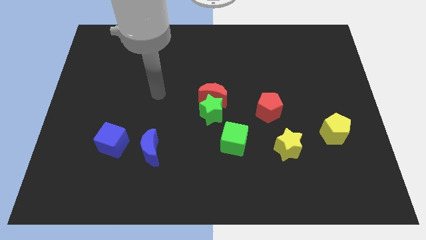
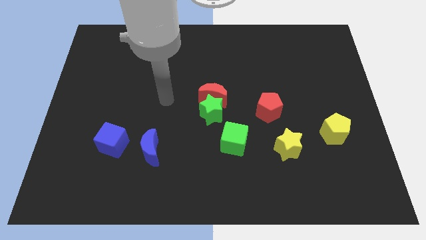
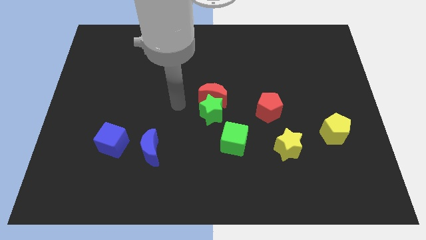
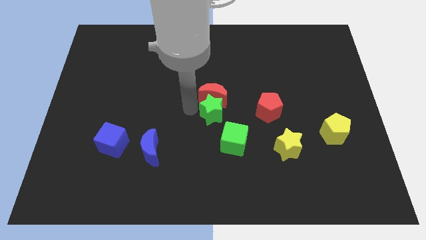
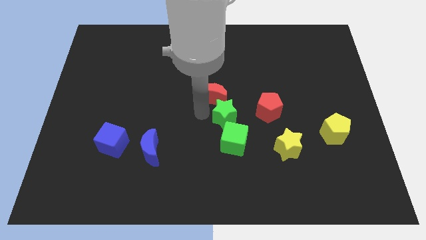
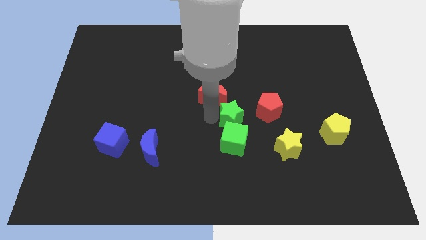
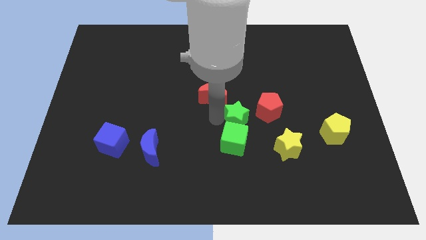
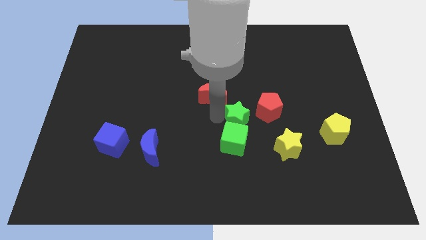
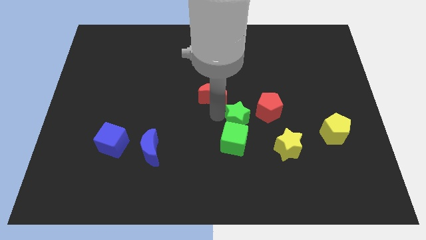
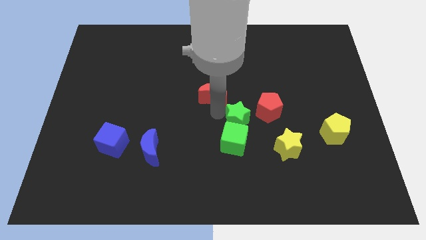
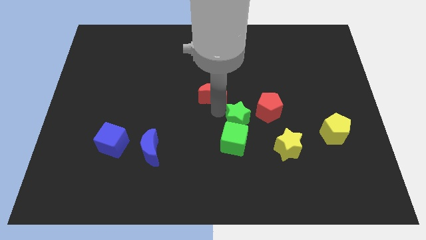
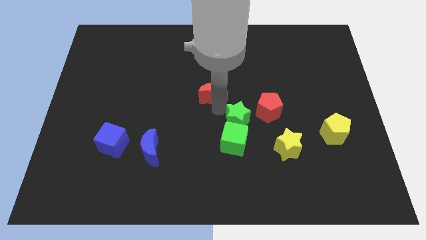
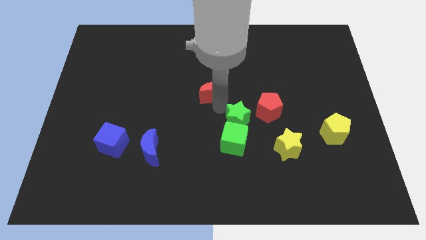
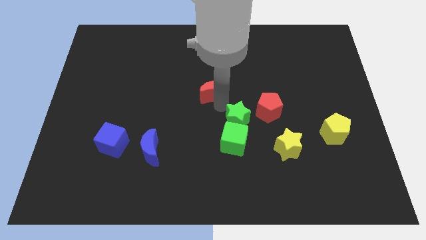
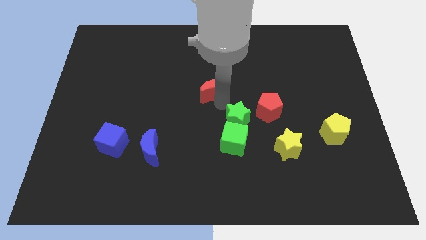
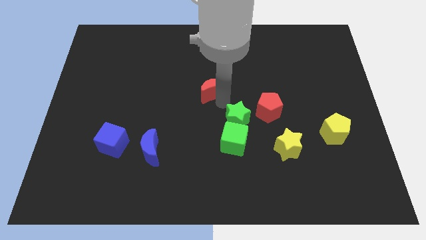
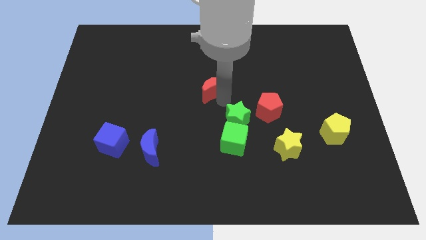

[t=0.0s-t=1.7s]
pull the red moon apart from the green star

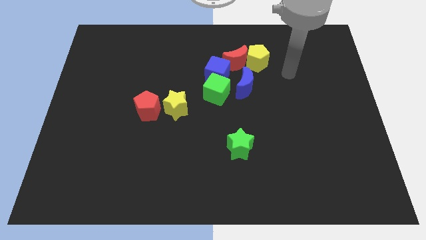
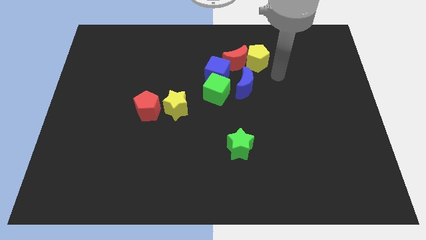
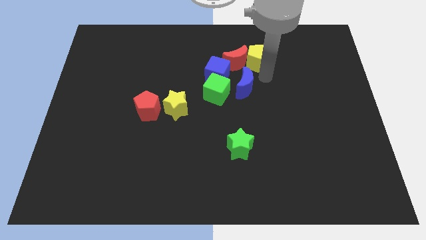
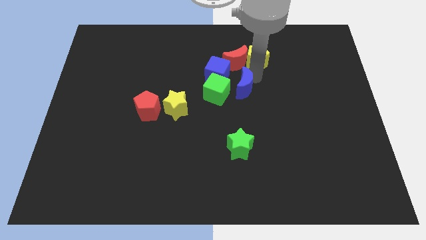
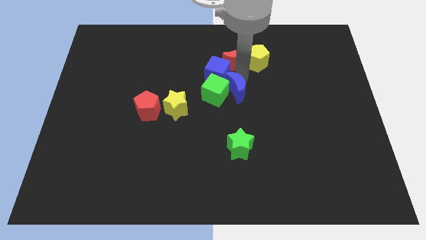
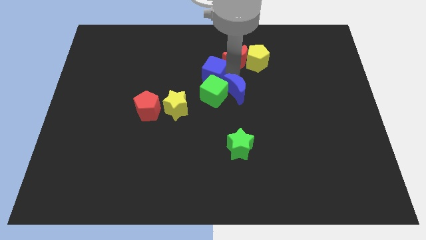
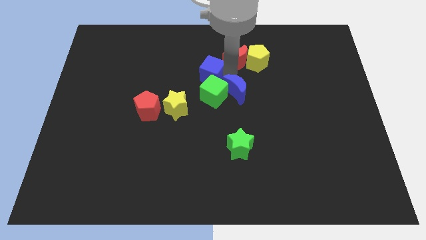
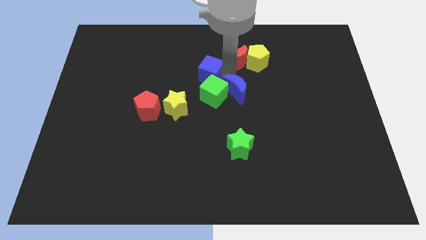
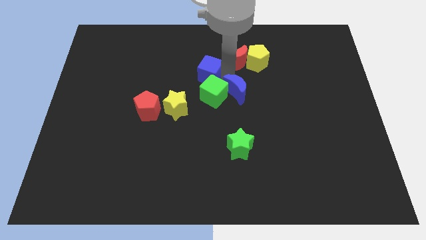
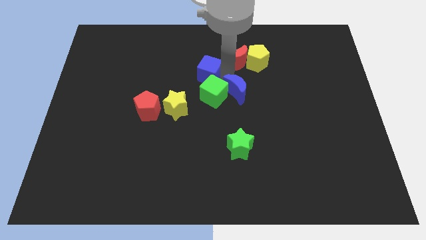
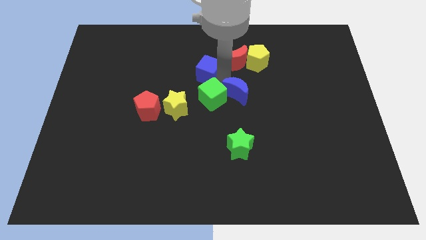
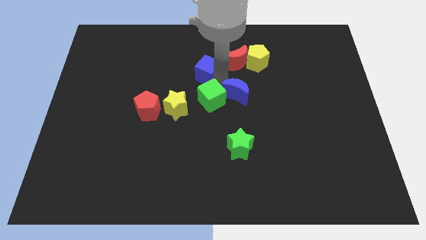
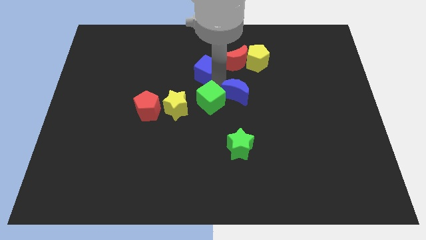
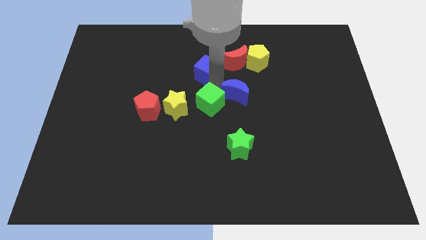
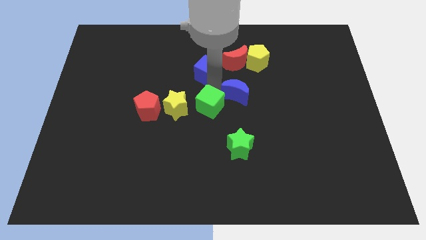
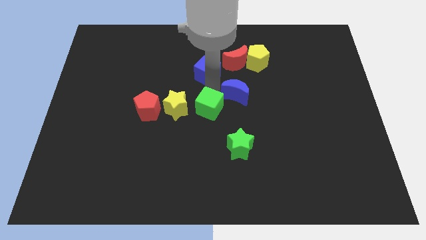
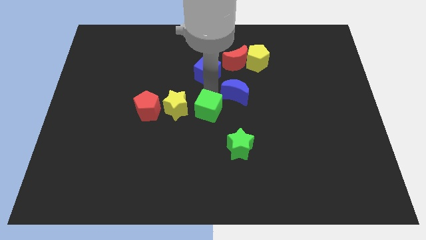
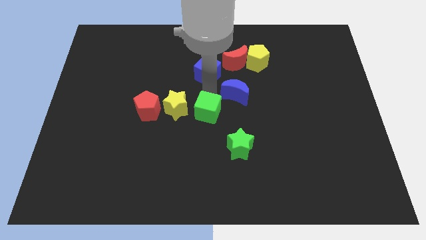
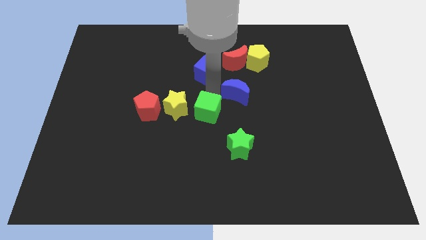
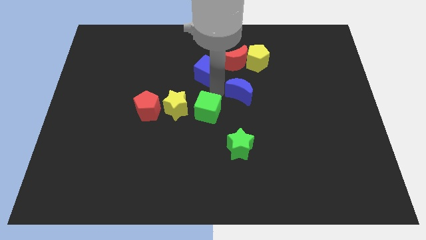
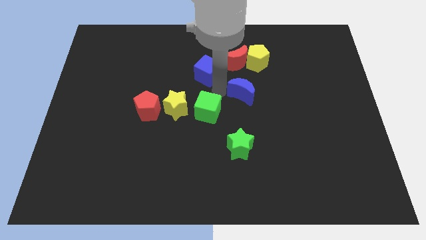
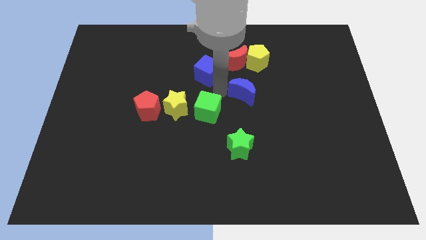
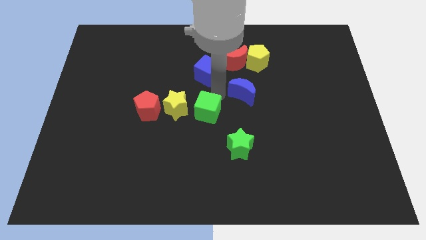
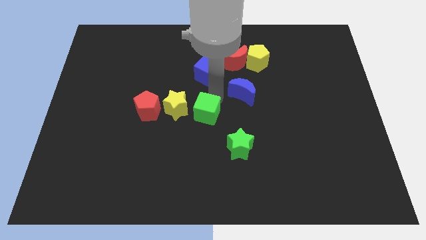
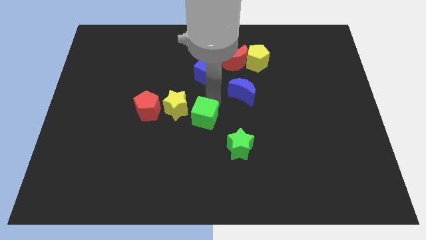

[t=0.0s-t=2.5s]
move the green cube away from the blue cube and blue moon

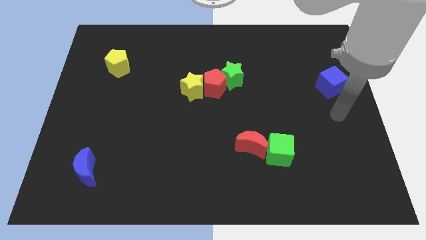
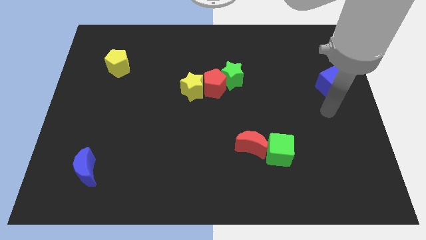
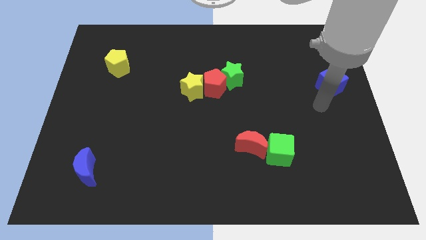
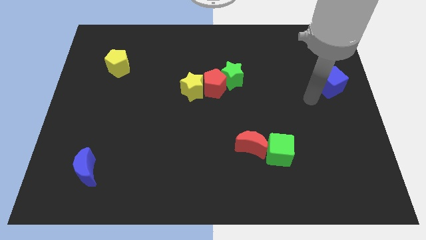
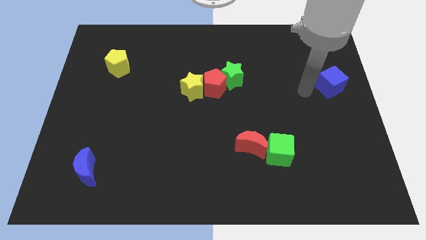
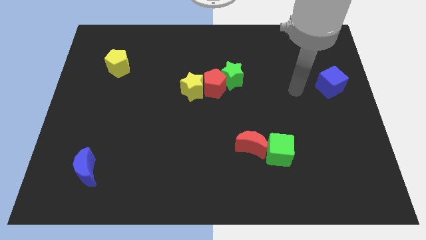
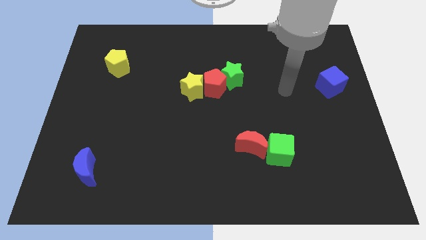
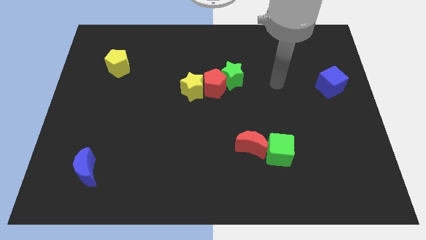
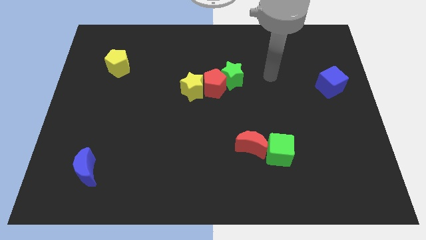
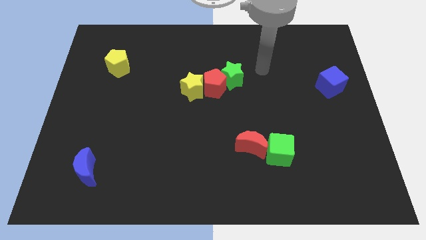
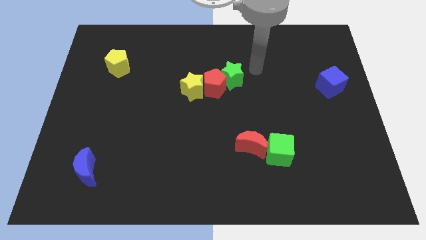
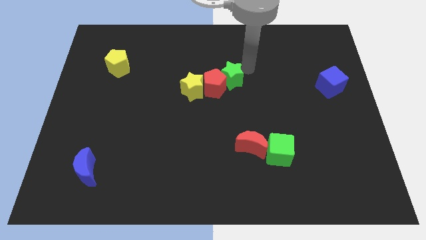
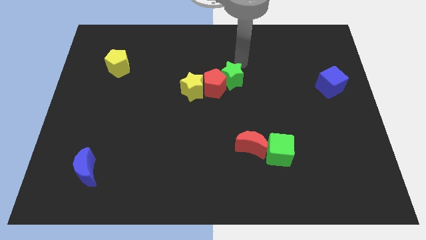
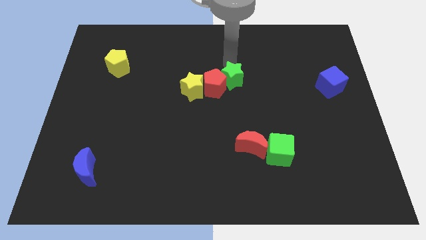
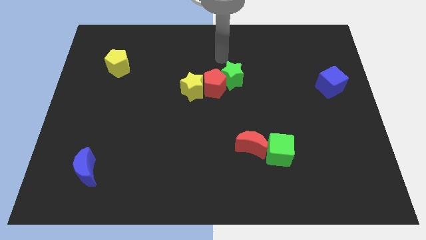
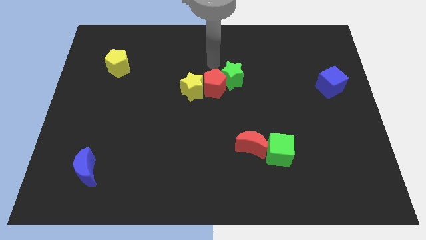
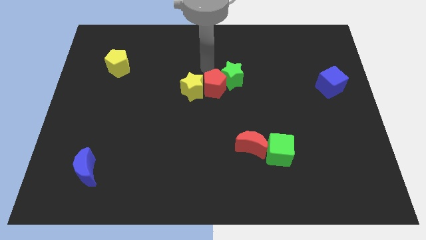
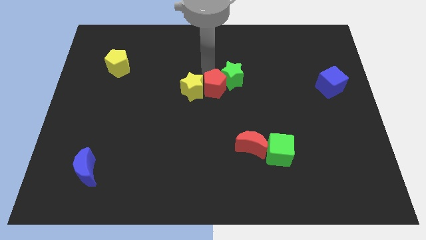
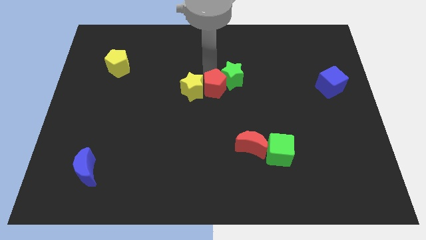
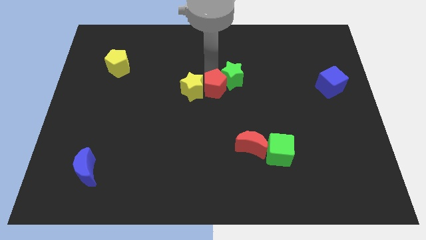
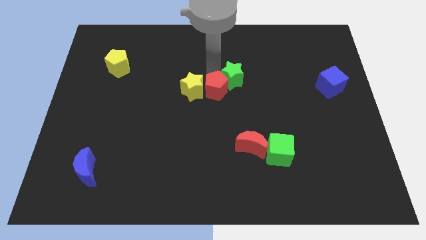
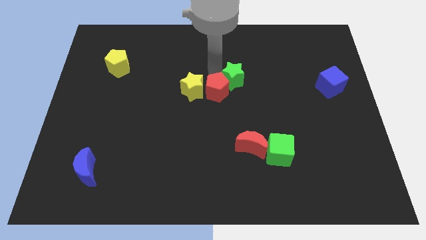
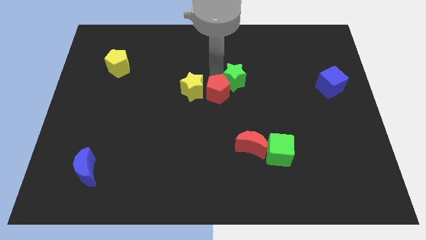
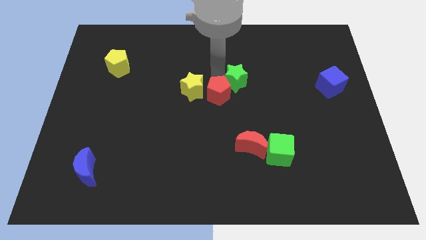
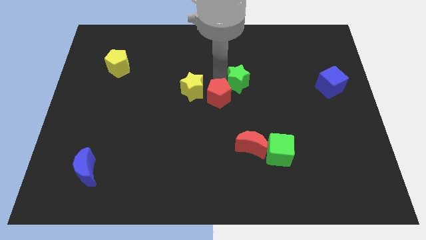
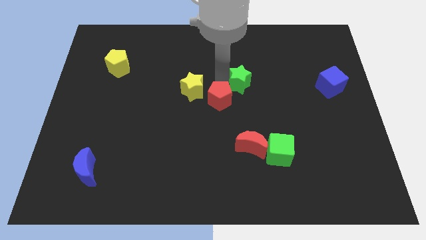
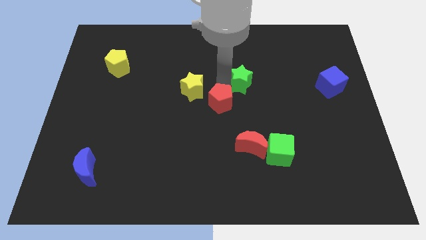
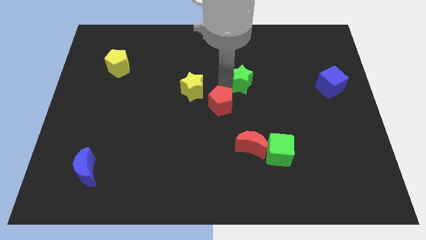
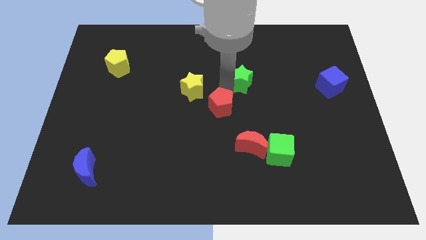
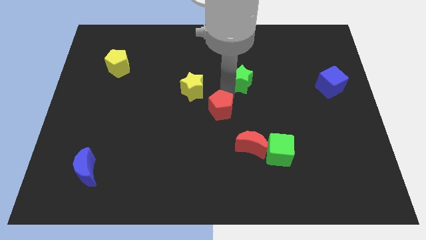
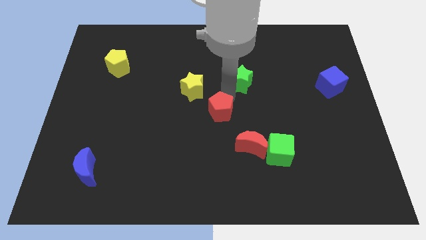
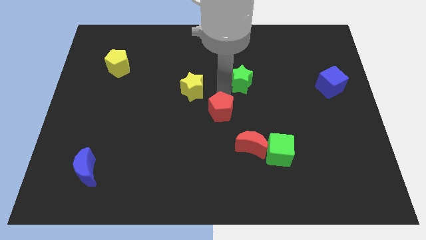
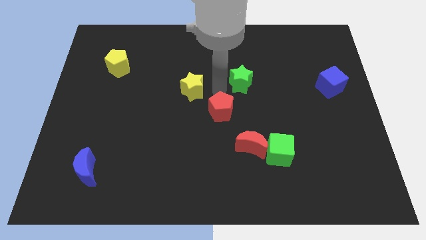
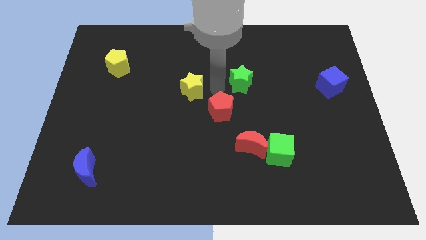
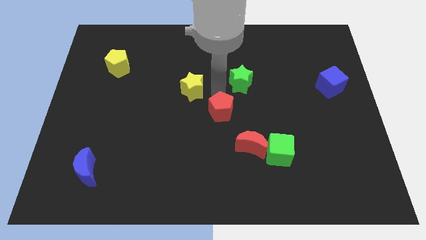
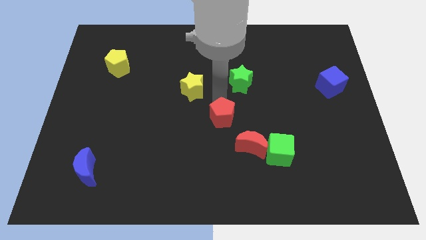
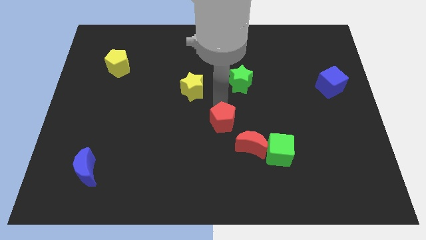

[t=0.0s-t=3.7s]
move the red pentagon away from the green star and yellow star

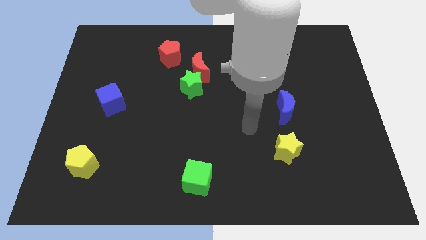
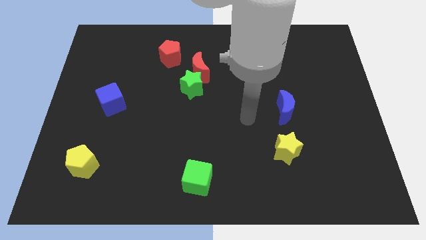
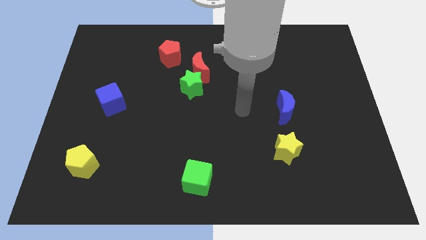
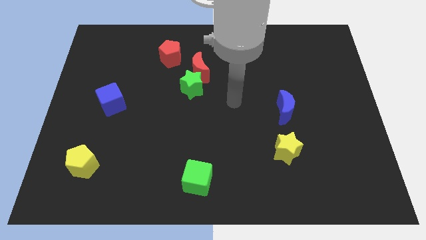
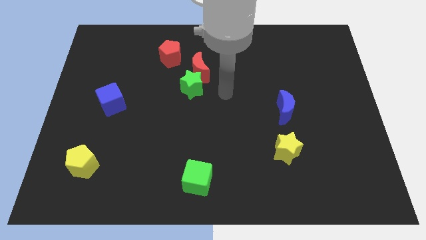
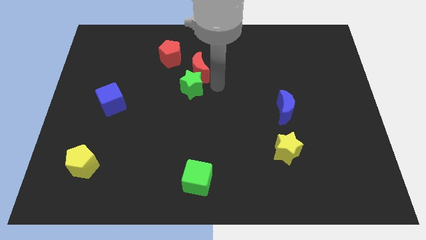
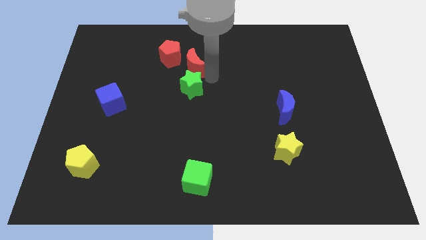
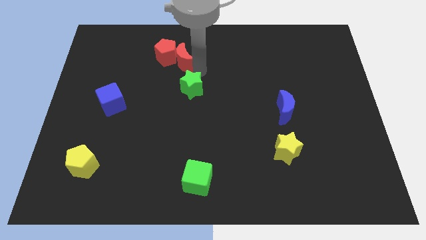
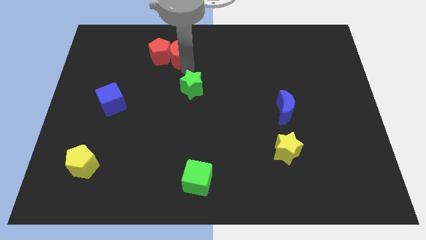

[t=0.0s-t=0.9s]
pull the green star apart from the red moon

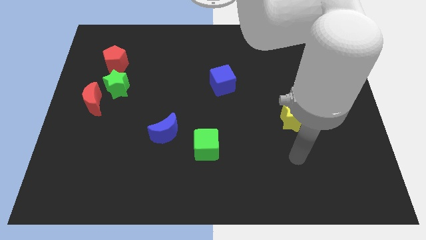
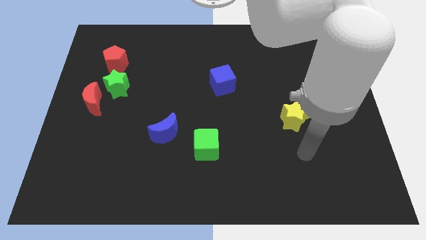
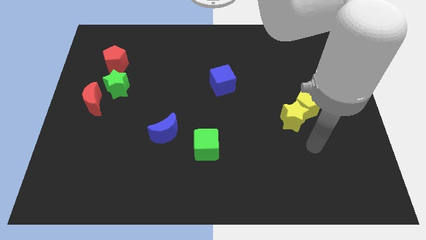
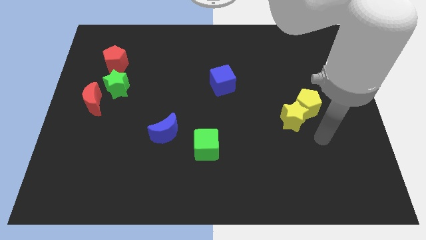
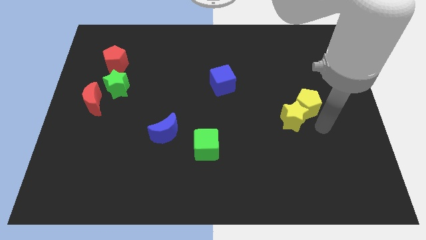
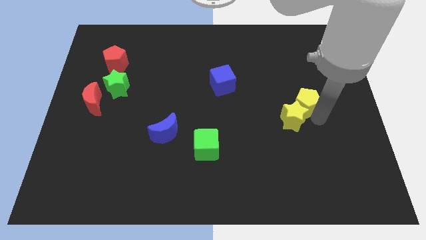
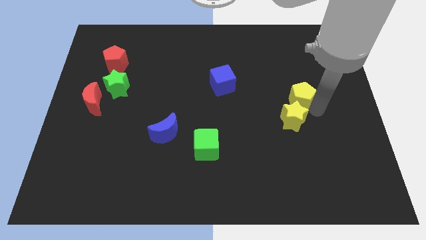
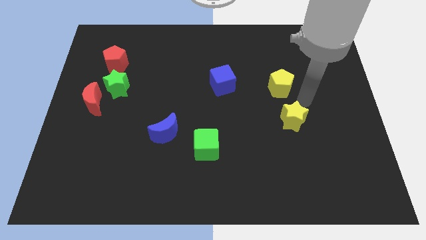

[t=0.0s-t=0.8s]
separate the yellow star from the yellow pentagon
